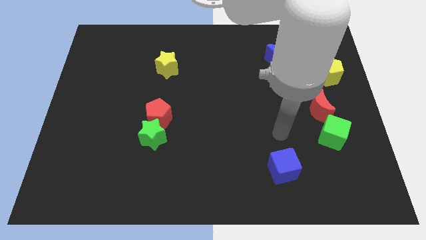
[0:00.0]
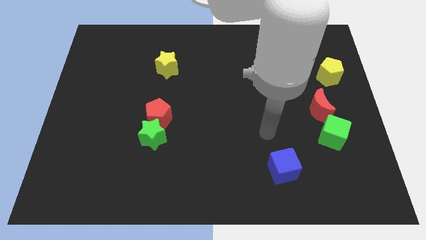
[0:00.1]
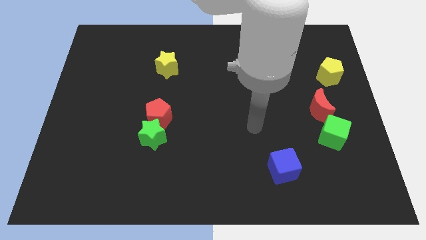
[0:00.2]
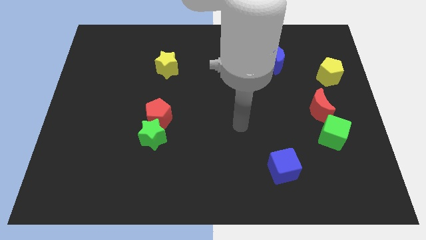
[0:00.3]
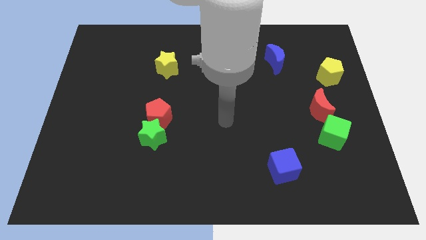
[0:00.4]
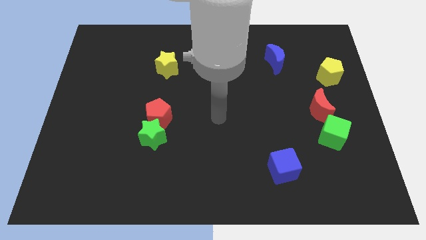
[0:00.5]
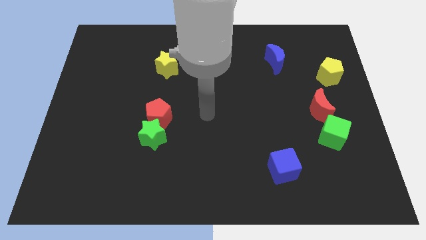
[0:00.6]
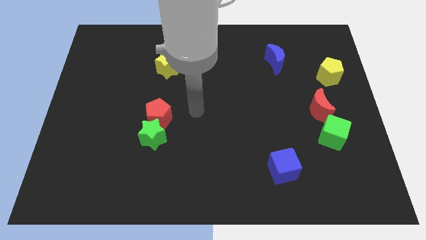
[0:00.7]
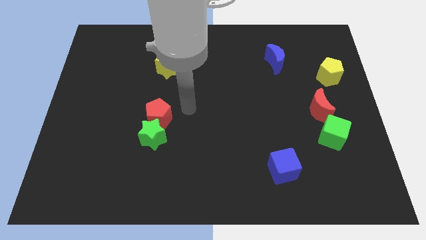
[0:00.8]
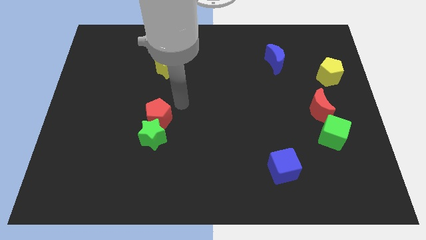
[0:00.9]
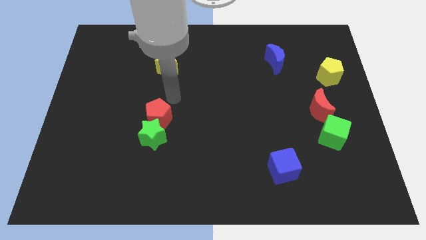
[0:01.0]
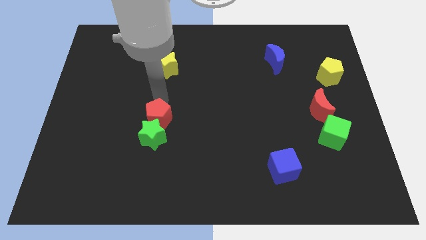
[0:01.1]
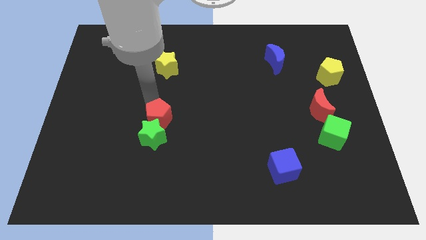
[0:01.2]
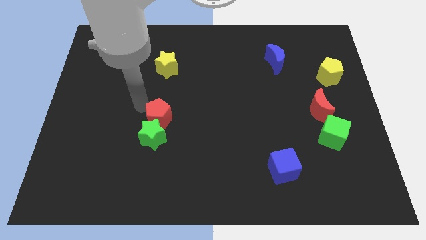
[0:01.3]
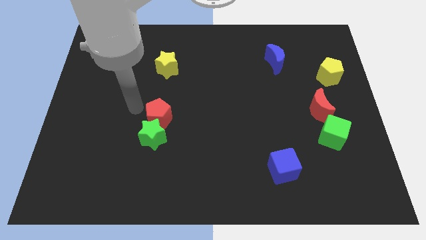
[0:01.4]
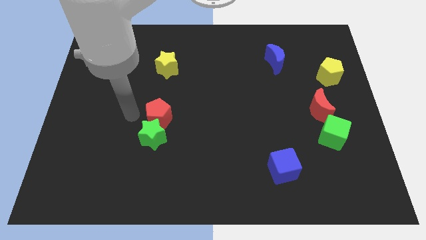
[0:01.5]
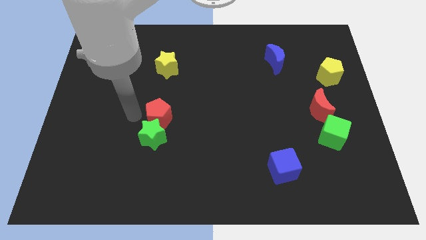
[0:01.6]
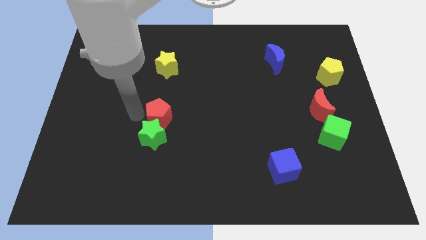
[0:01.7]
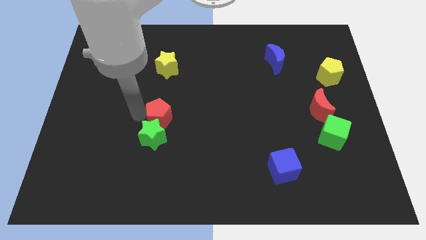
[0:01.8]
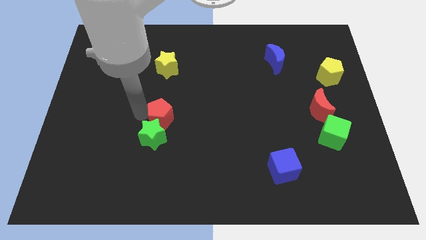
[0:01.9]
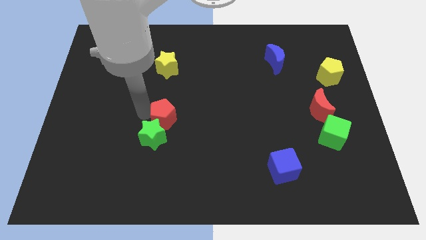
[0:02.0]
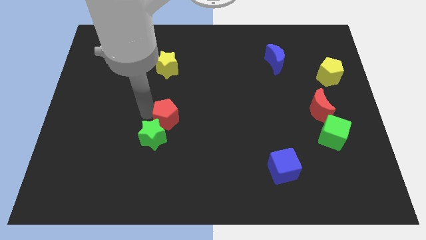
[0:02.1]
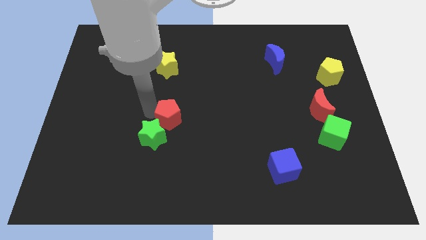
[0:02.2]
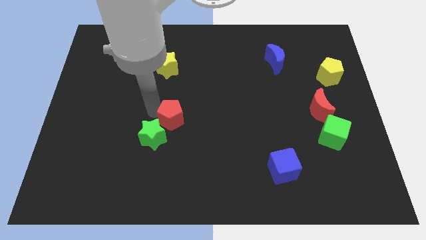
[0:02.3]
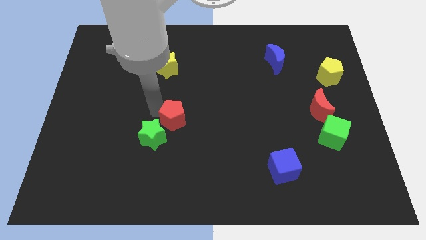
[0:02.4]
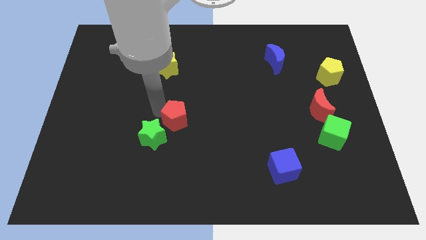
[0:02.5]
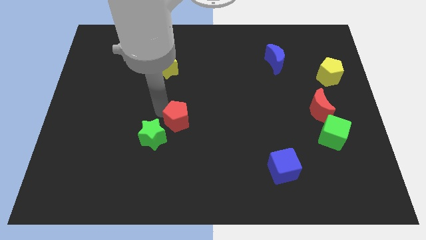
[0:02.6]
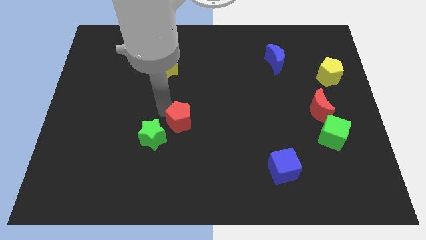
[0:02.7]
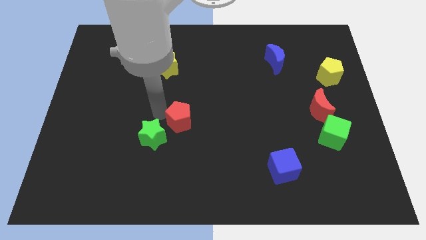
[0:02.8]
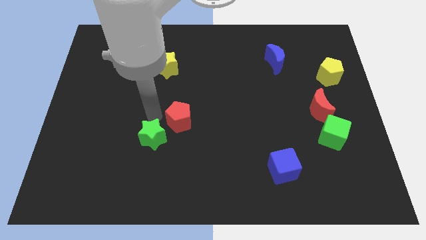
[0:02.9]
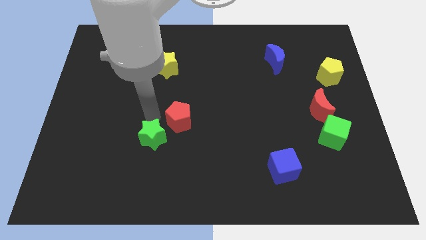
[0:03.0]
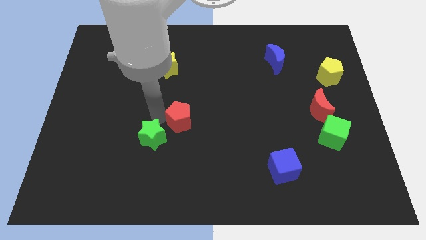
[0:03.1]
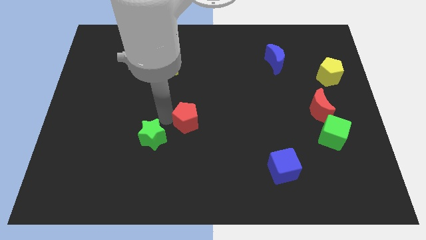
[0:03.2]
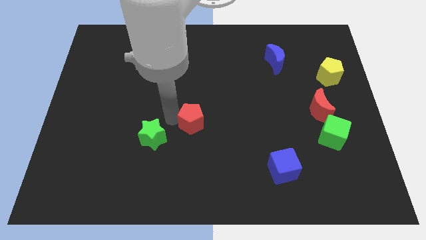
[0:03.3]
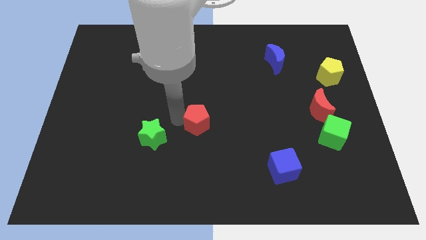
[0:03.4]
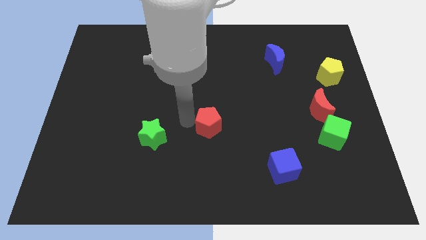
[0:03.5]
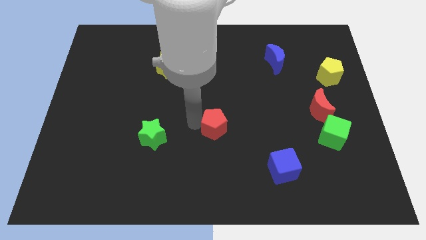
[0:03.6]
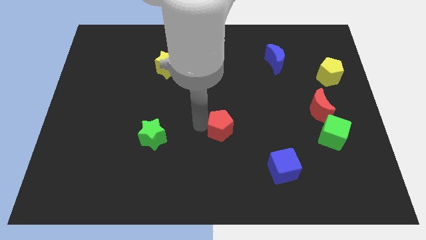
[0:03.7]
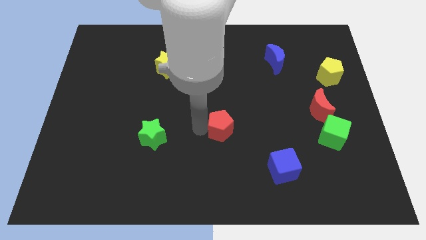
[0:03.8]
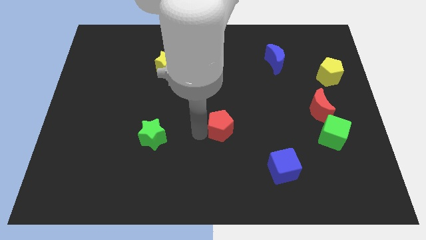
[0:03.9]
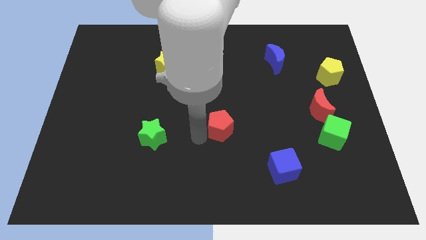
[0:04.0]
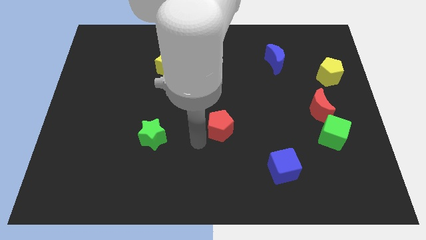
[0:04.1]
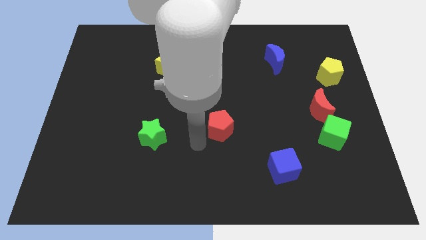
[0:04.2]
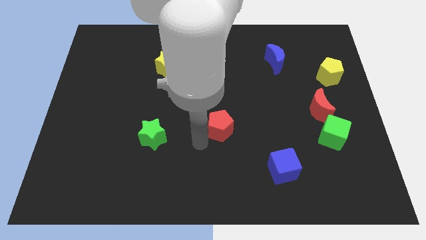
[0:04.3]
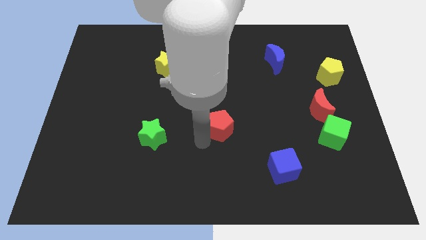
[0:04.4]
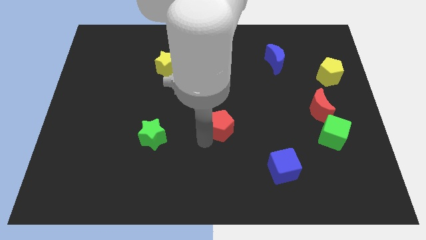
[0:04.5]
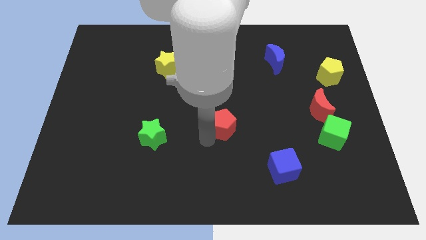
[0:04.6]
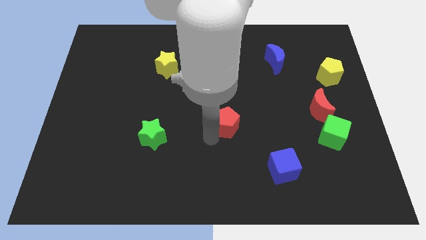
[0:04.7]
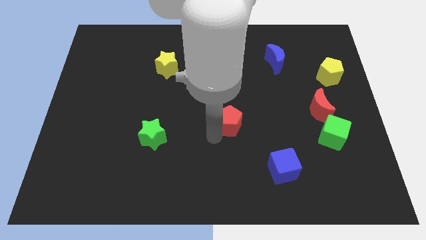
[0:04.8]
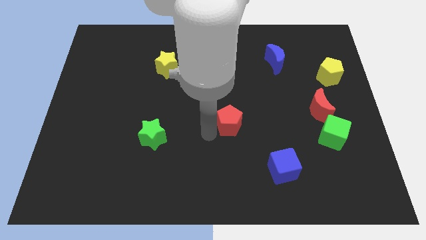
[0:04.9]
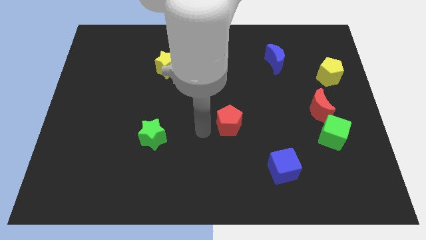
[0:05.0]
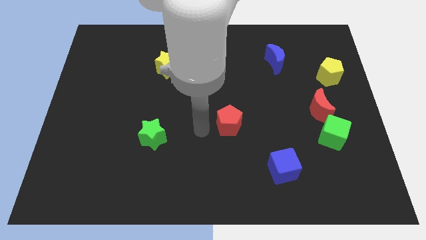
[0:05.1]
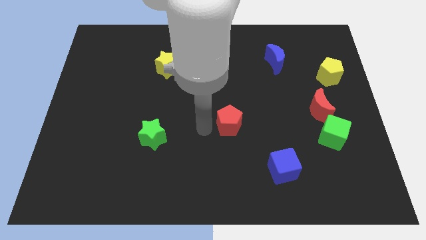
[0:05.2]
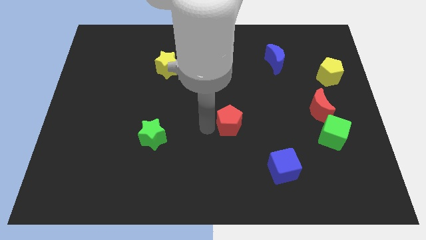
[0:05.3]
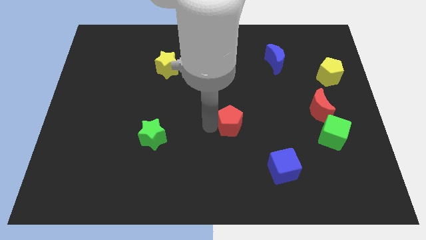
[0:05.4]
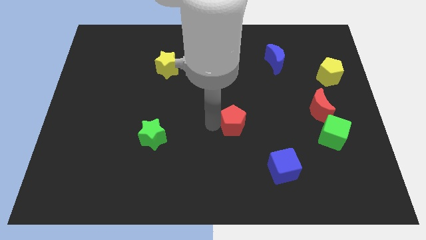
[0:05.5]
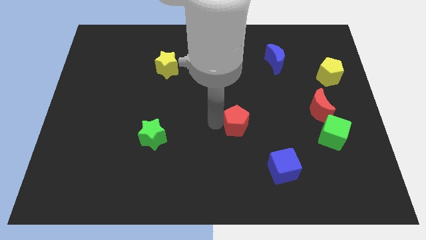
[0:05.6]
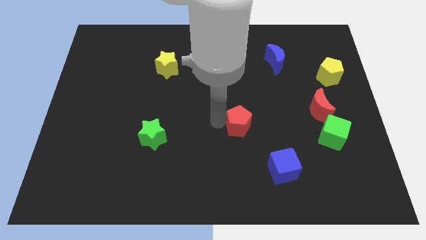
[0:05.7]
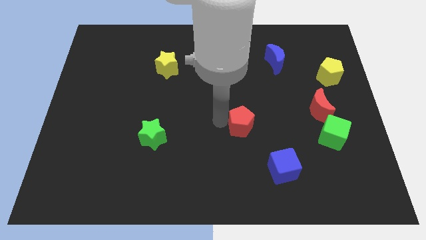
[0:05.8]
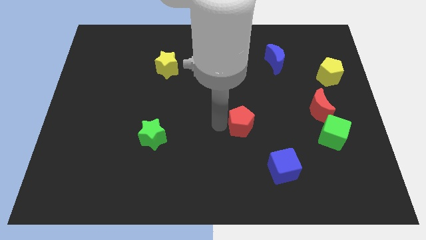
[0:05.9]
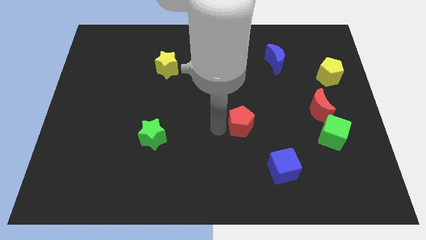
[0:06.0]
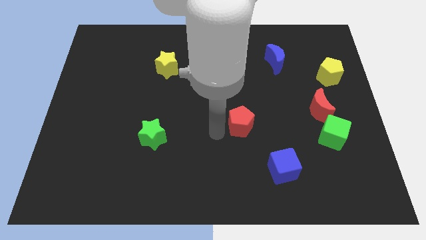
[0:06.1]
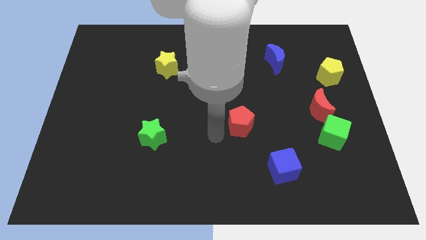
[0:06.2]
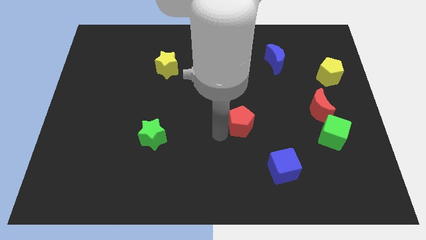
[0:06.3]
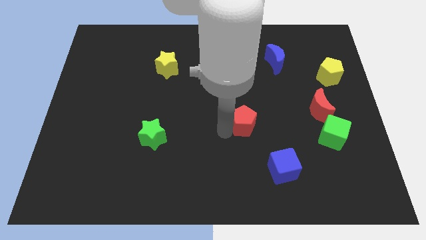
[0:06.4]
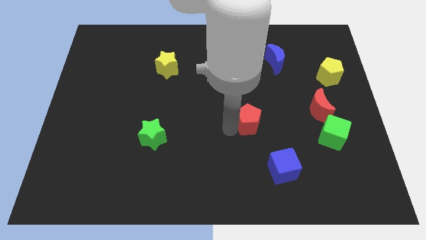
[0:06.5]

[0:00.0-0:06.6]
move the red pentagon to the right

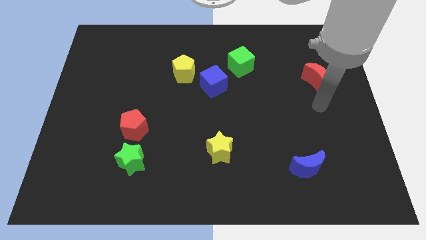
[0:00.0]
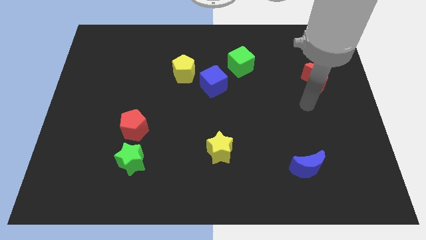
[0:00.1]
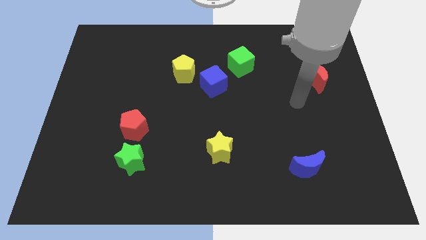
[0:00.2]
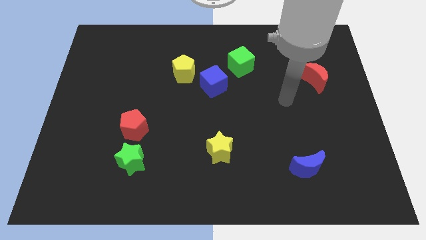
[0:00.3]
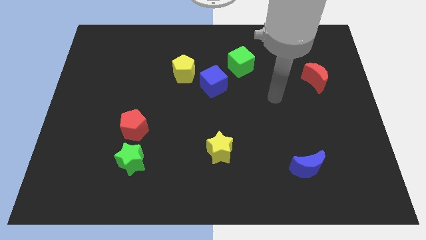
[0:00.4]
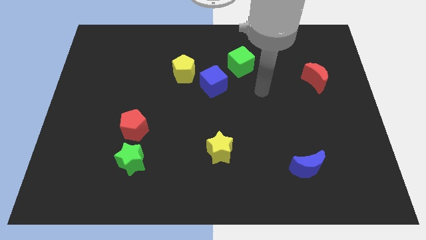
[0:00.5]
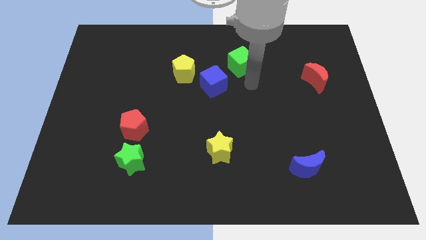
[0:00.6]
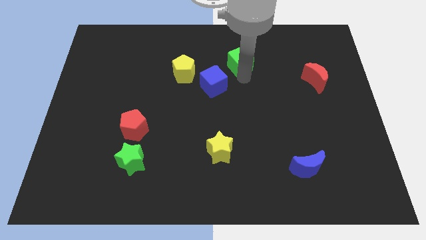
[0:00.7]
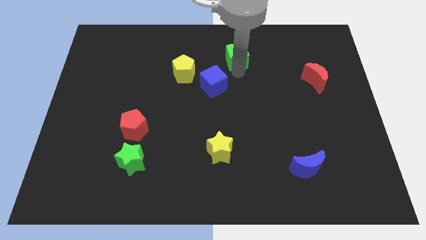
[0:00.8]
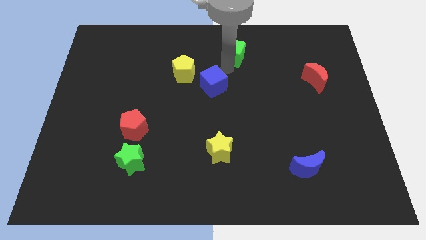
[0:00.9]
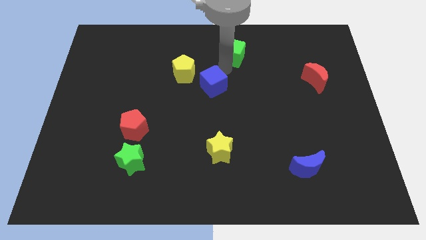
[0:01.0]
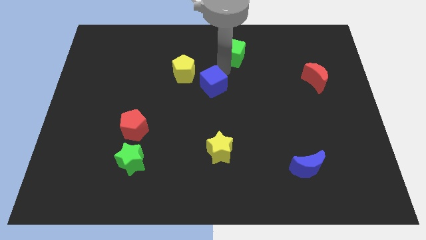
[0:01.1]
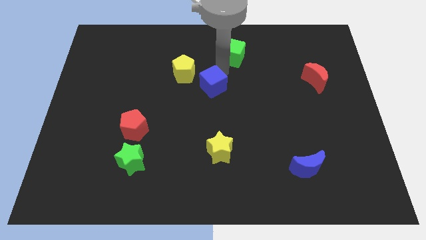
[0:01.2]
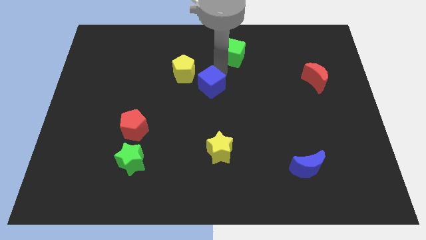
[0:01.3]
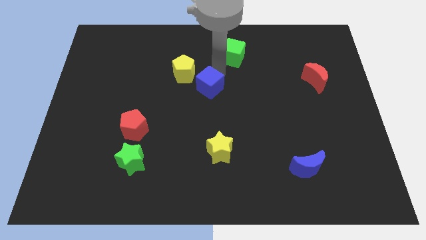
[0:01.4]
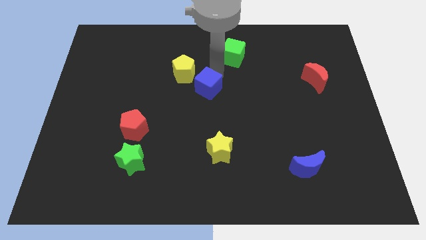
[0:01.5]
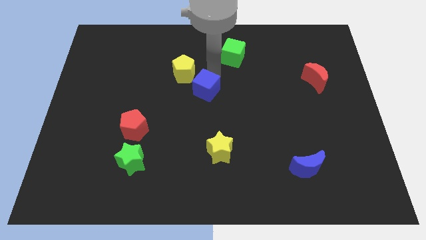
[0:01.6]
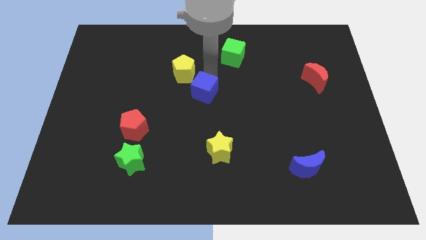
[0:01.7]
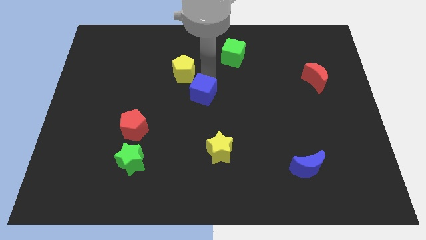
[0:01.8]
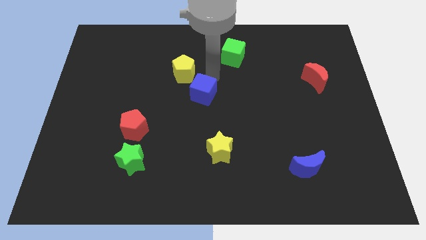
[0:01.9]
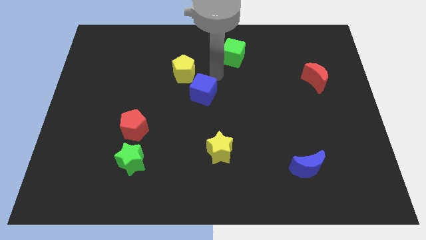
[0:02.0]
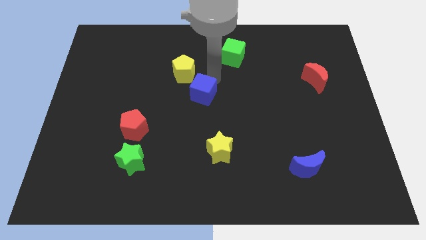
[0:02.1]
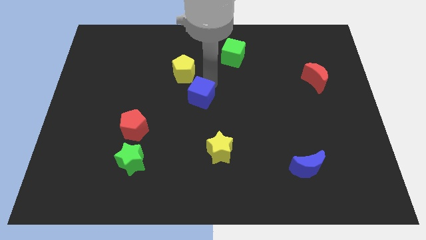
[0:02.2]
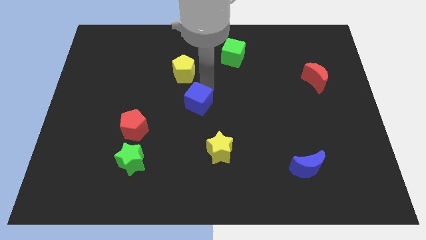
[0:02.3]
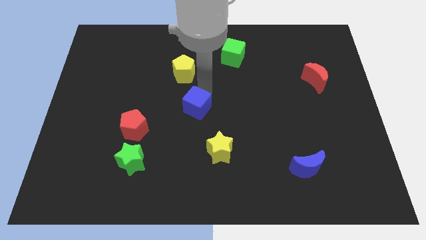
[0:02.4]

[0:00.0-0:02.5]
slightly move the blue cube diagonally down and to the left
